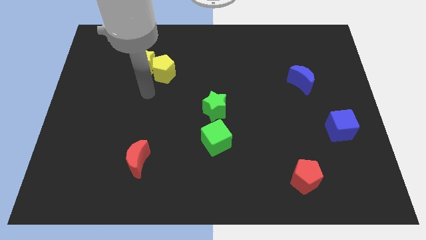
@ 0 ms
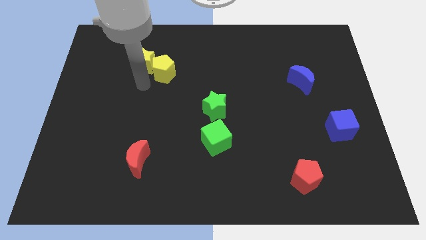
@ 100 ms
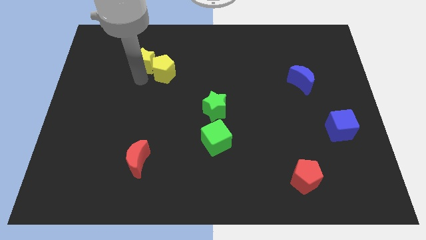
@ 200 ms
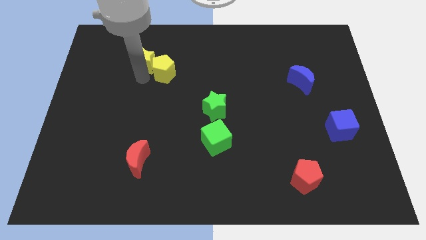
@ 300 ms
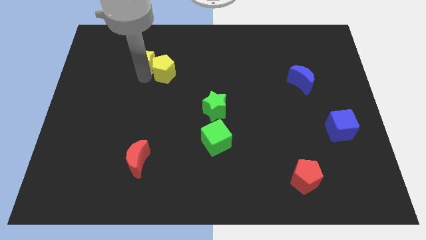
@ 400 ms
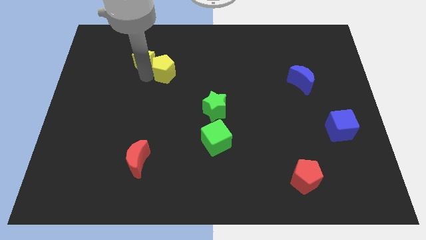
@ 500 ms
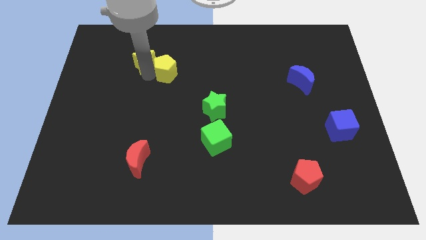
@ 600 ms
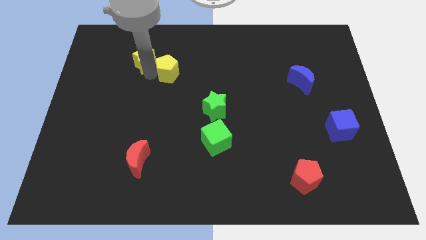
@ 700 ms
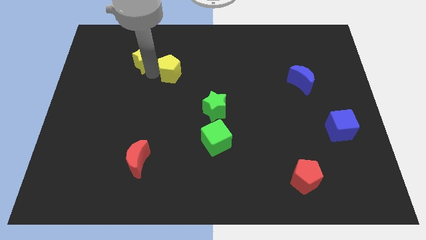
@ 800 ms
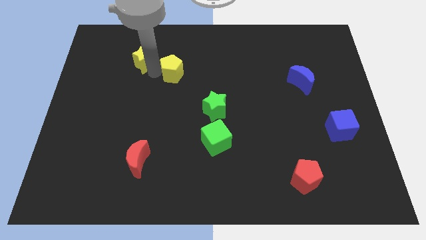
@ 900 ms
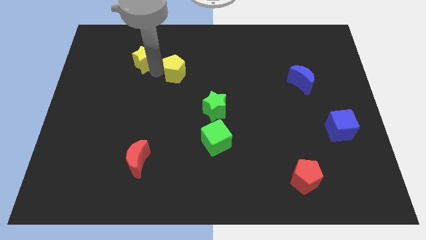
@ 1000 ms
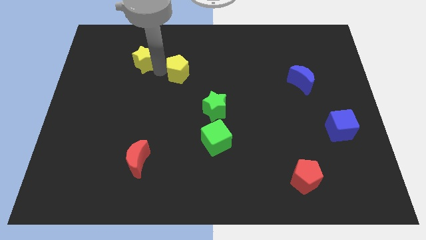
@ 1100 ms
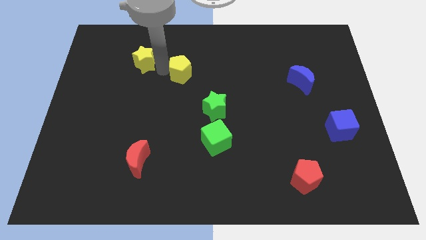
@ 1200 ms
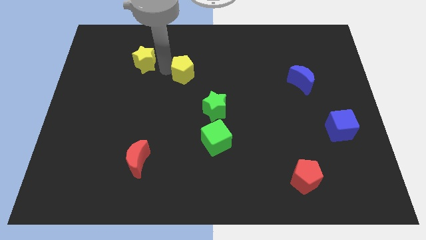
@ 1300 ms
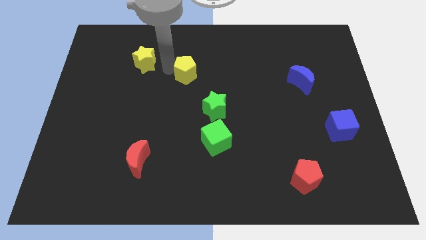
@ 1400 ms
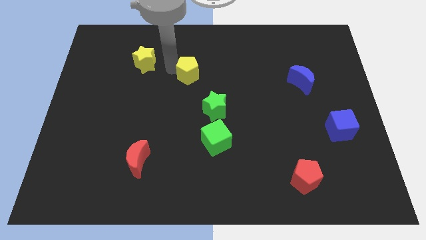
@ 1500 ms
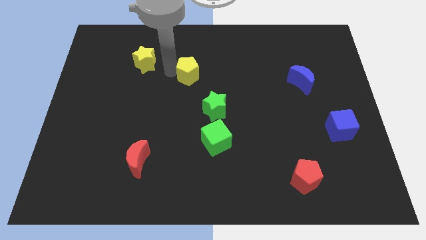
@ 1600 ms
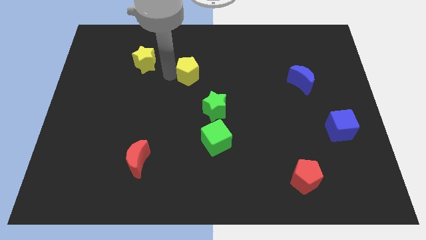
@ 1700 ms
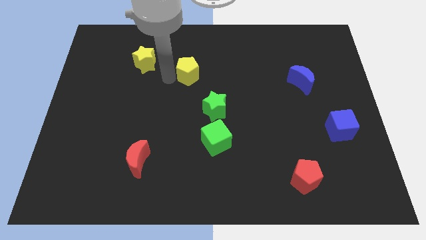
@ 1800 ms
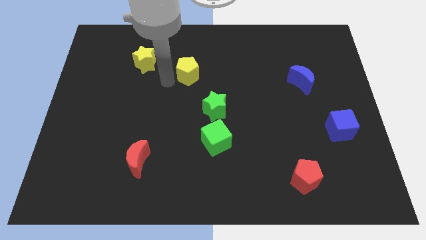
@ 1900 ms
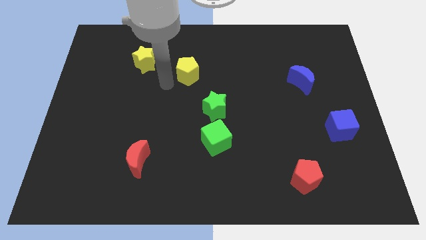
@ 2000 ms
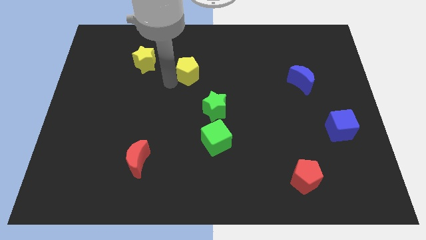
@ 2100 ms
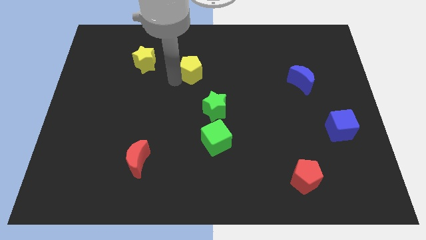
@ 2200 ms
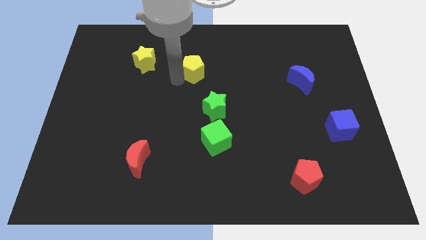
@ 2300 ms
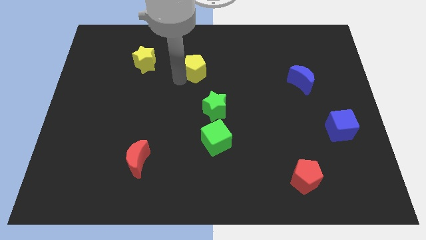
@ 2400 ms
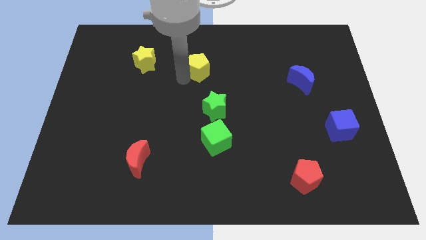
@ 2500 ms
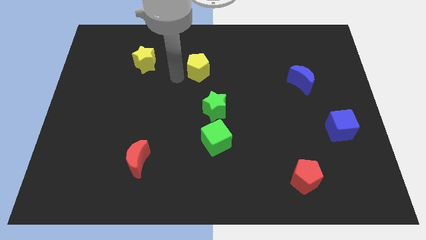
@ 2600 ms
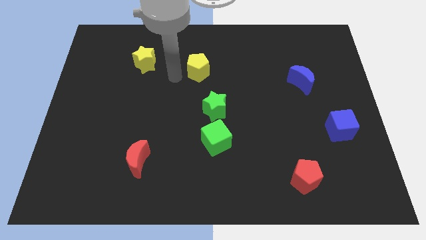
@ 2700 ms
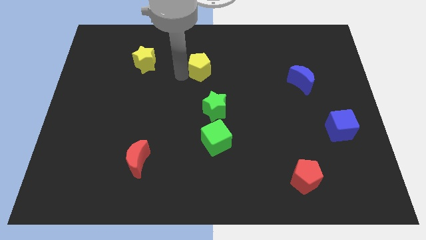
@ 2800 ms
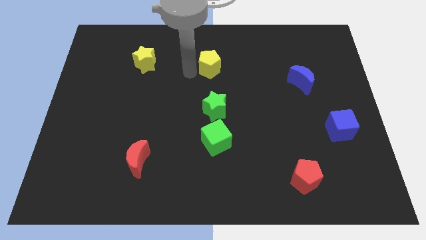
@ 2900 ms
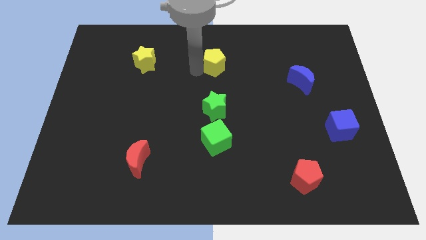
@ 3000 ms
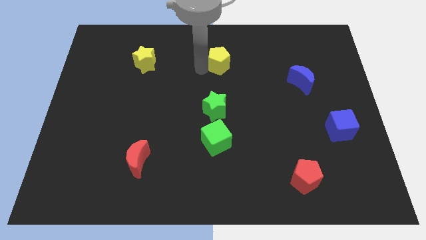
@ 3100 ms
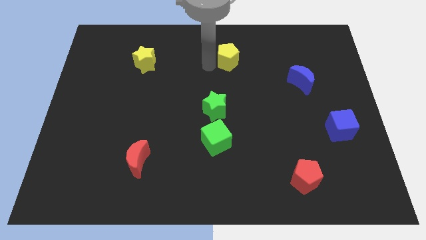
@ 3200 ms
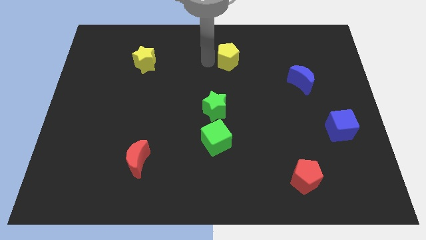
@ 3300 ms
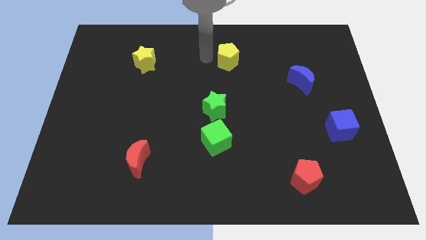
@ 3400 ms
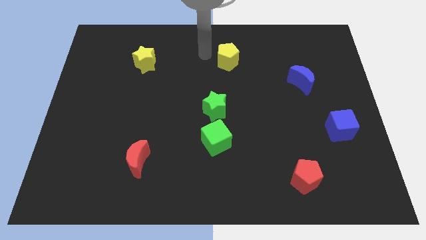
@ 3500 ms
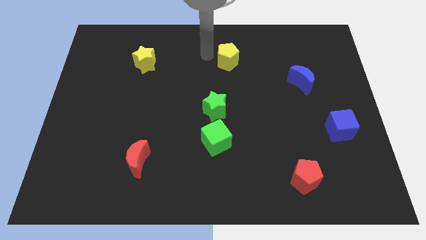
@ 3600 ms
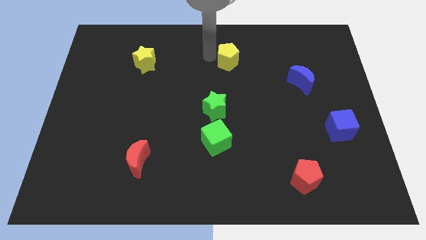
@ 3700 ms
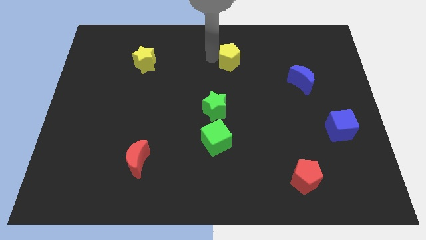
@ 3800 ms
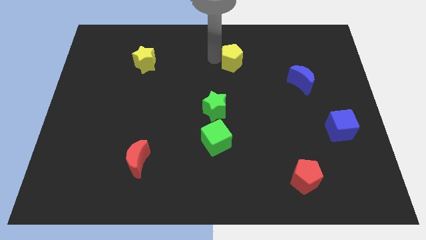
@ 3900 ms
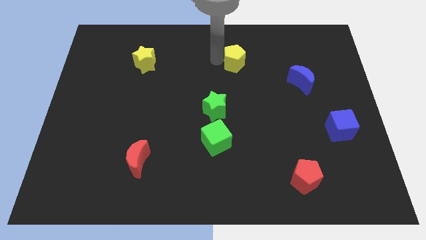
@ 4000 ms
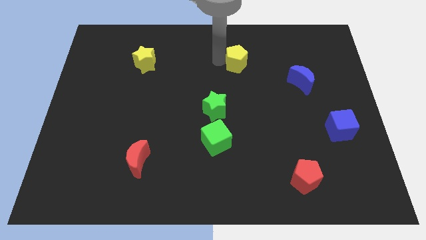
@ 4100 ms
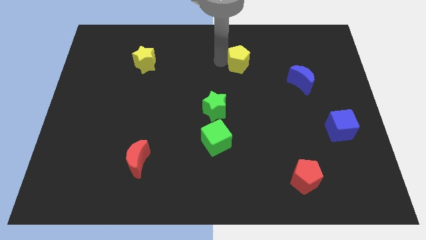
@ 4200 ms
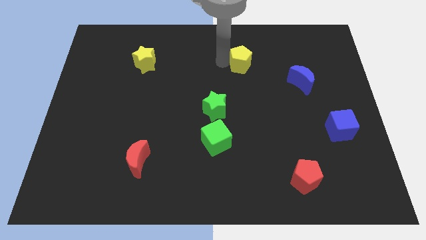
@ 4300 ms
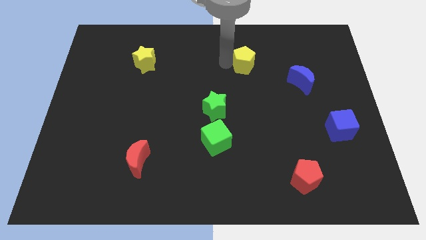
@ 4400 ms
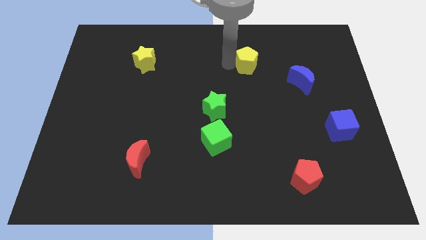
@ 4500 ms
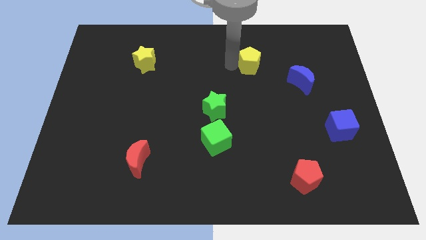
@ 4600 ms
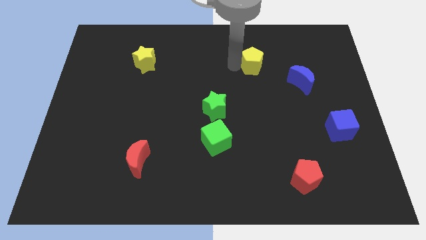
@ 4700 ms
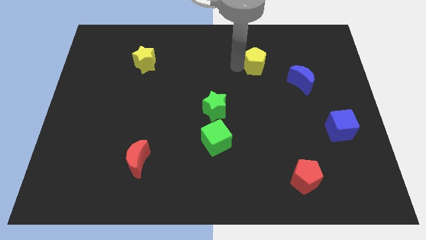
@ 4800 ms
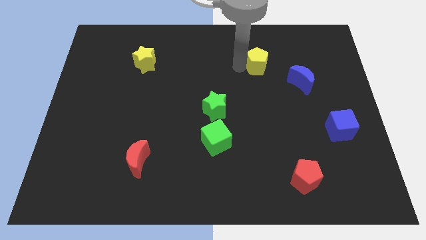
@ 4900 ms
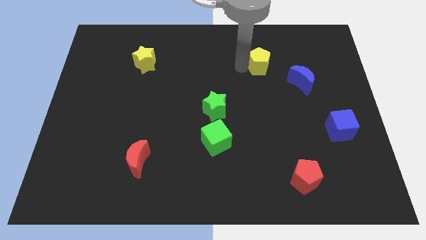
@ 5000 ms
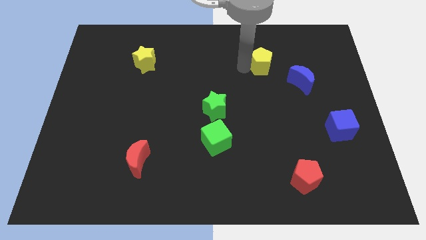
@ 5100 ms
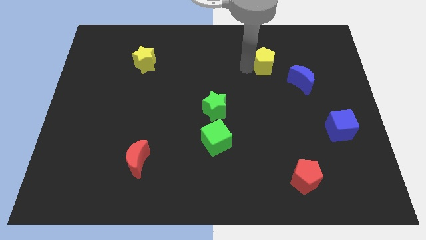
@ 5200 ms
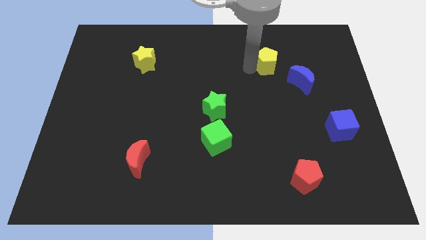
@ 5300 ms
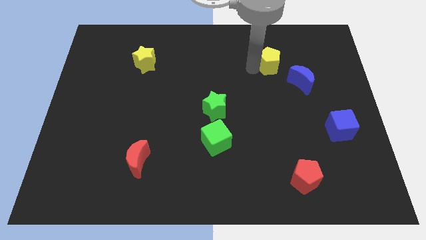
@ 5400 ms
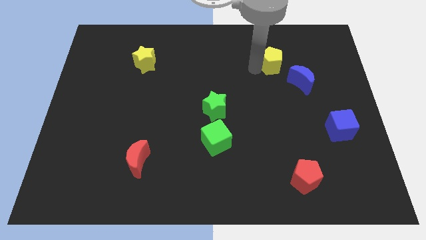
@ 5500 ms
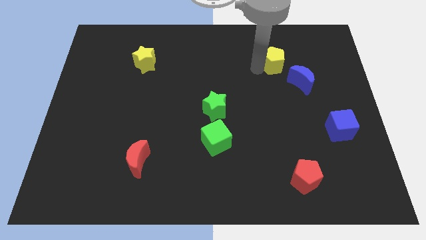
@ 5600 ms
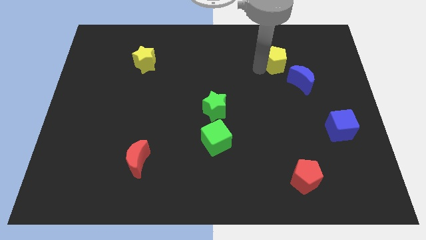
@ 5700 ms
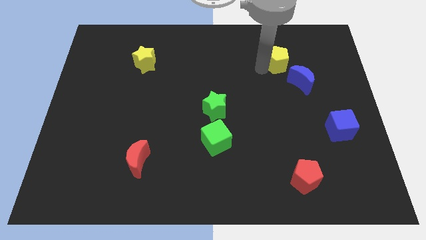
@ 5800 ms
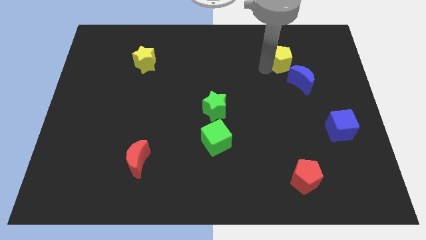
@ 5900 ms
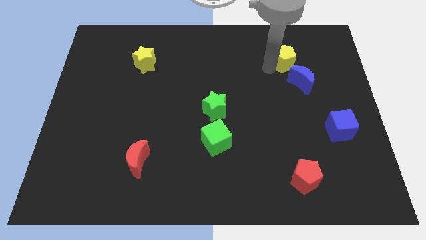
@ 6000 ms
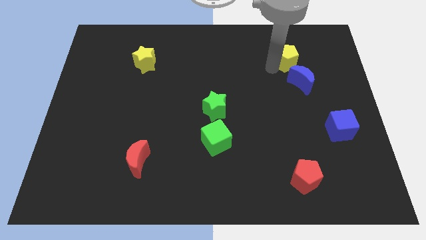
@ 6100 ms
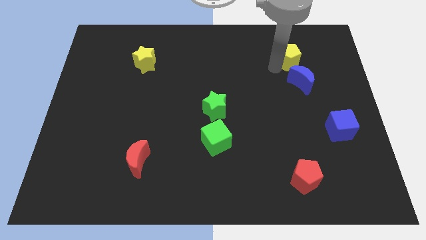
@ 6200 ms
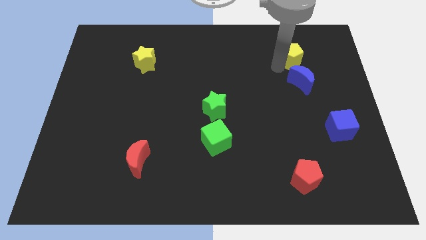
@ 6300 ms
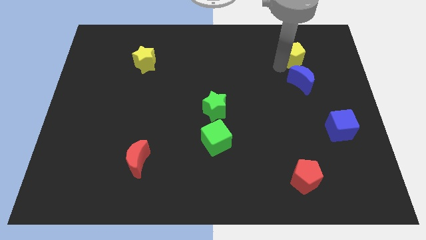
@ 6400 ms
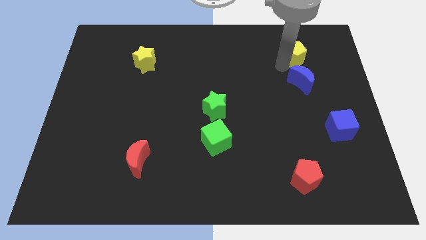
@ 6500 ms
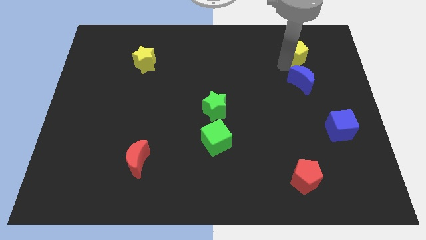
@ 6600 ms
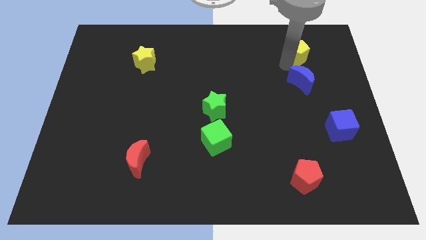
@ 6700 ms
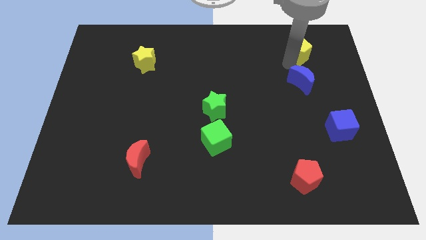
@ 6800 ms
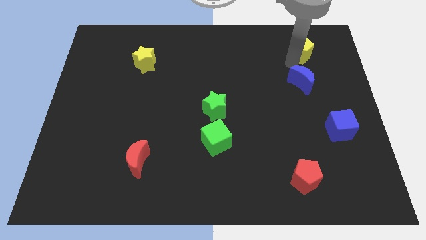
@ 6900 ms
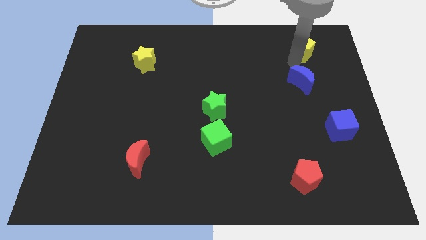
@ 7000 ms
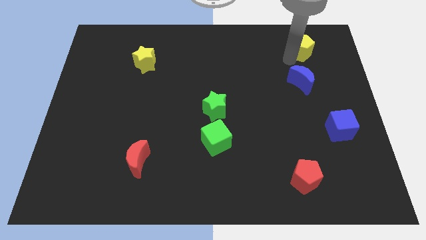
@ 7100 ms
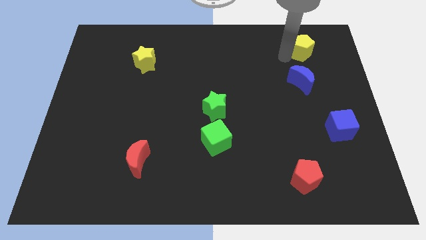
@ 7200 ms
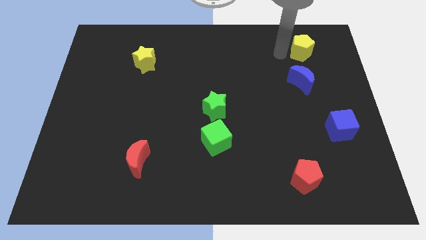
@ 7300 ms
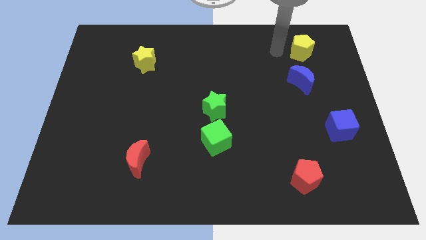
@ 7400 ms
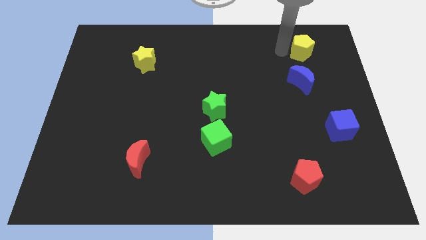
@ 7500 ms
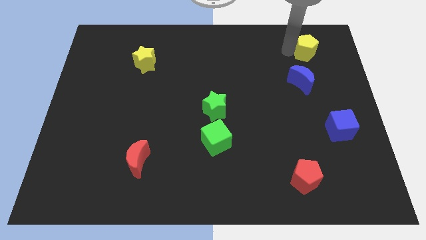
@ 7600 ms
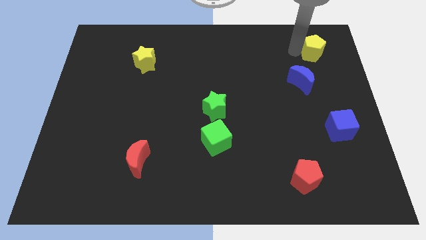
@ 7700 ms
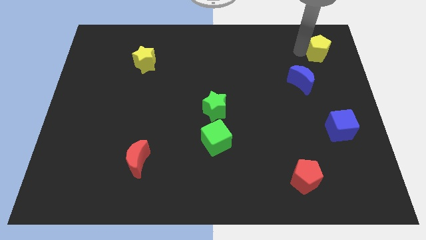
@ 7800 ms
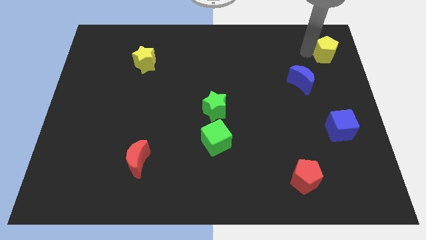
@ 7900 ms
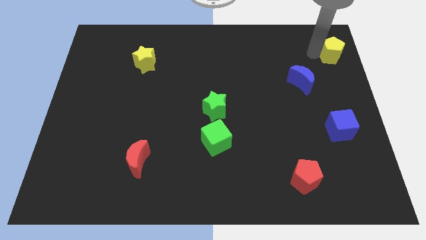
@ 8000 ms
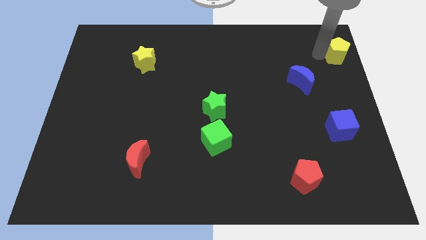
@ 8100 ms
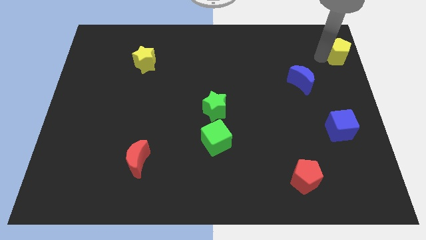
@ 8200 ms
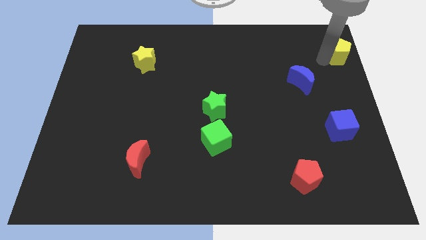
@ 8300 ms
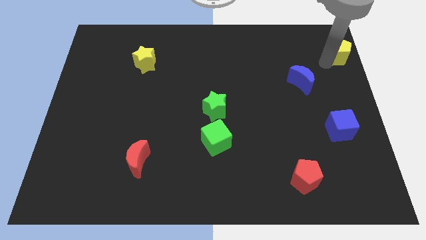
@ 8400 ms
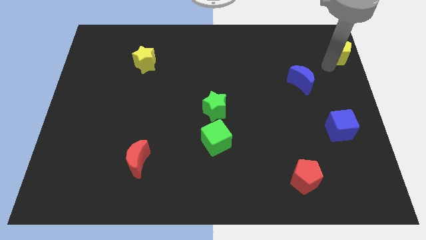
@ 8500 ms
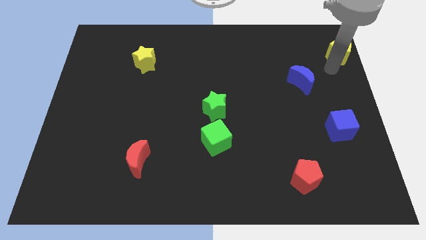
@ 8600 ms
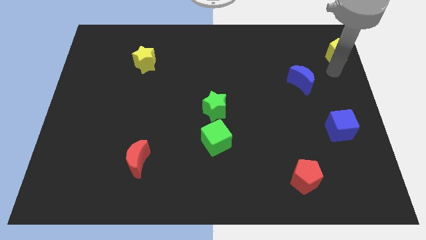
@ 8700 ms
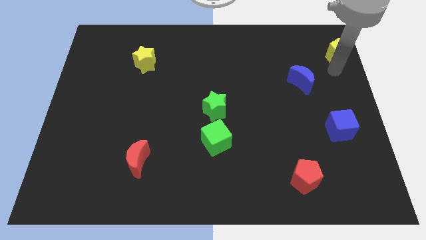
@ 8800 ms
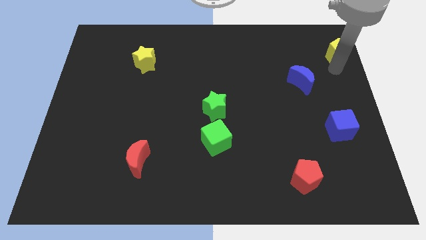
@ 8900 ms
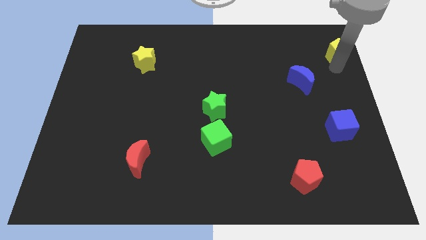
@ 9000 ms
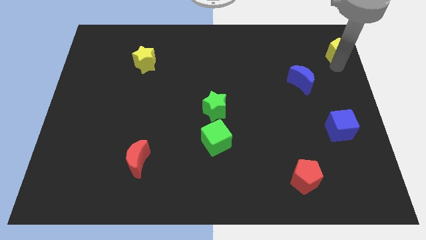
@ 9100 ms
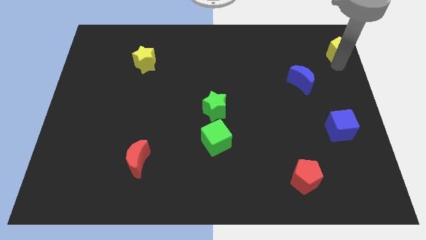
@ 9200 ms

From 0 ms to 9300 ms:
slide the yellow pentagon to the top right of the board
